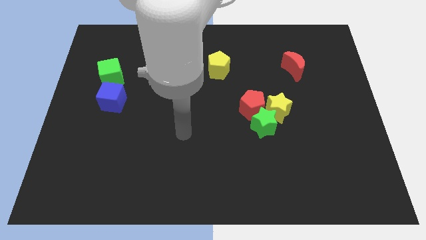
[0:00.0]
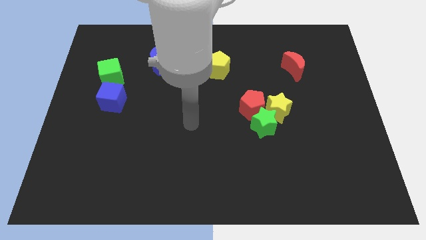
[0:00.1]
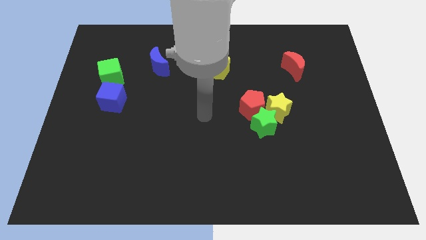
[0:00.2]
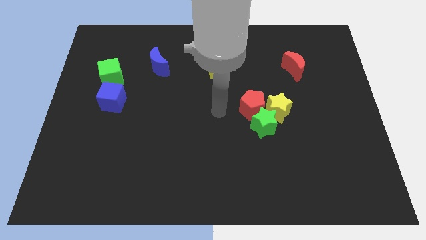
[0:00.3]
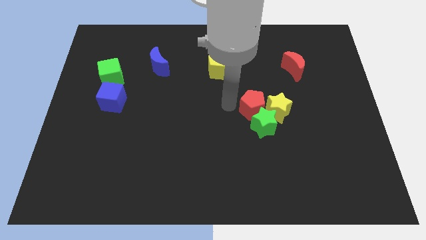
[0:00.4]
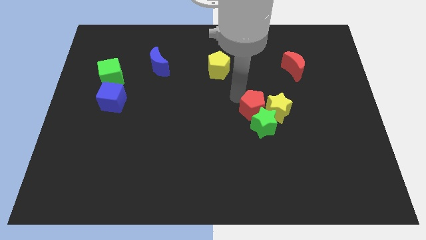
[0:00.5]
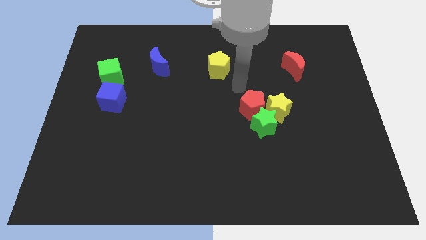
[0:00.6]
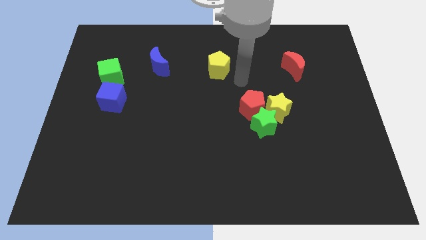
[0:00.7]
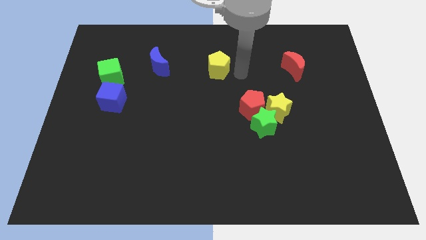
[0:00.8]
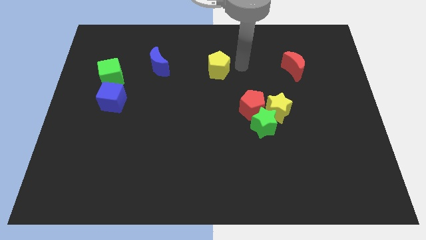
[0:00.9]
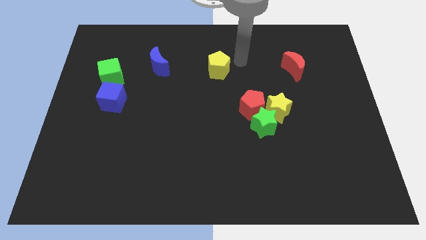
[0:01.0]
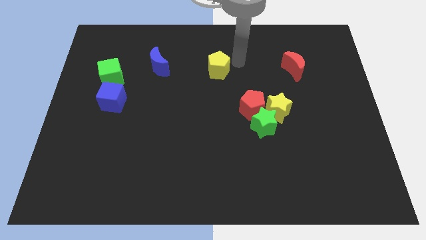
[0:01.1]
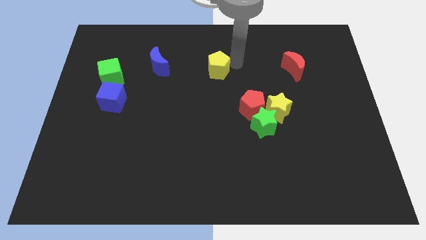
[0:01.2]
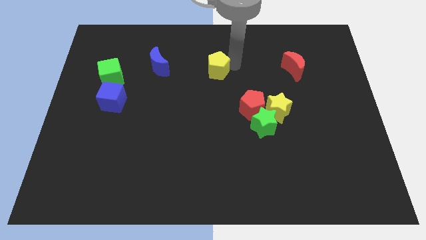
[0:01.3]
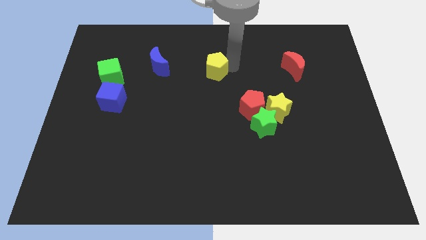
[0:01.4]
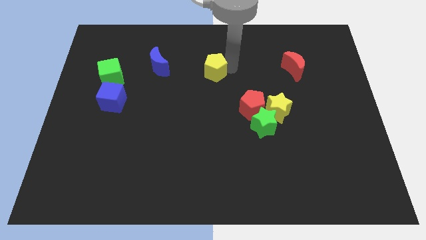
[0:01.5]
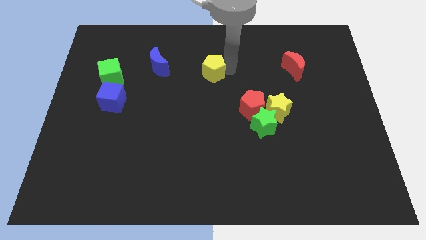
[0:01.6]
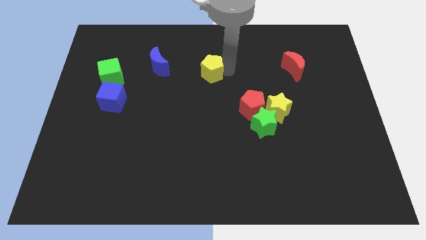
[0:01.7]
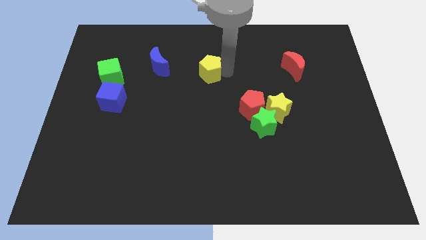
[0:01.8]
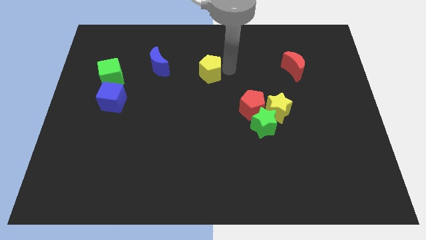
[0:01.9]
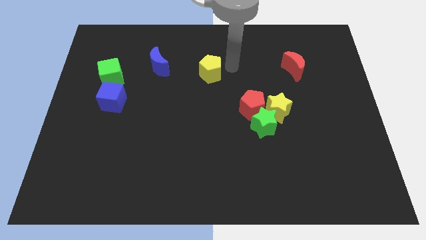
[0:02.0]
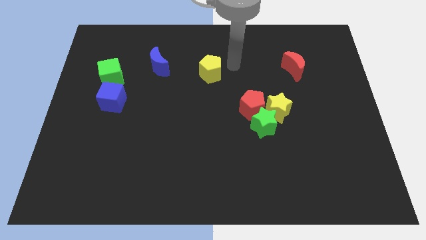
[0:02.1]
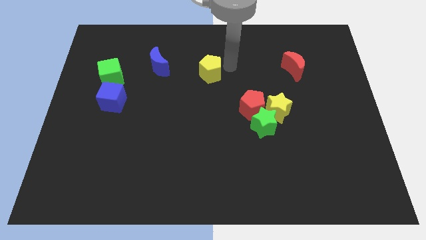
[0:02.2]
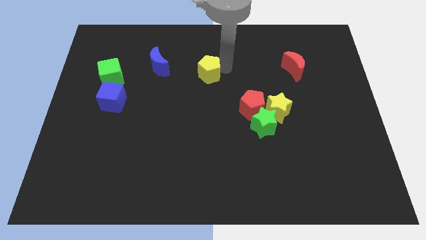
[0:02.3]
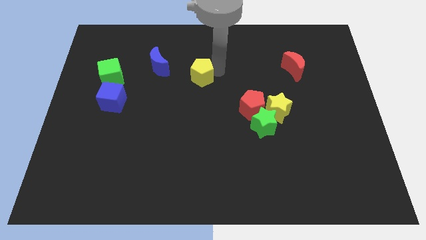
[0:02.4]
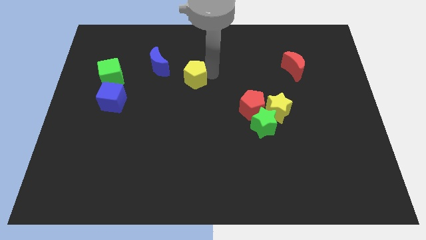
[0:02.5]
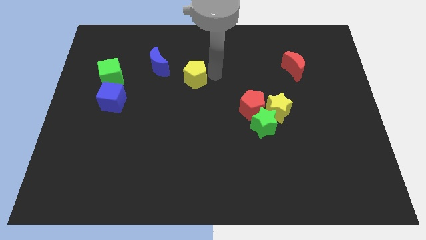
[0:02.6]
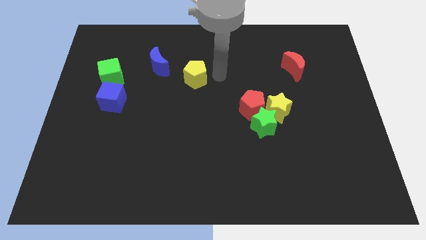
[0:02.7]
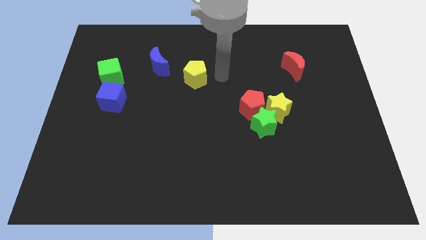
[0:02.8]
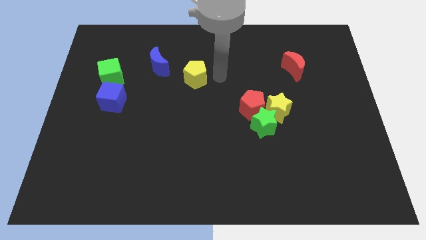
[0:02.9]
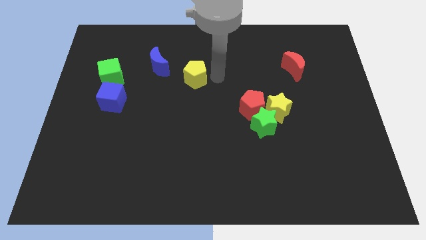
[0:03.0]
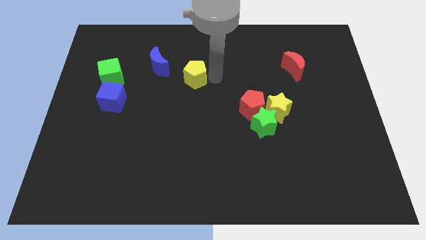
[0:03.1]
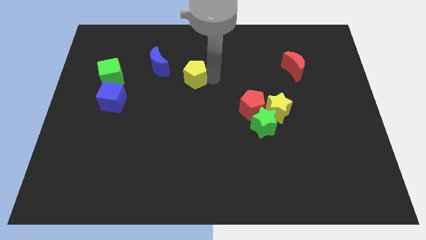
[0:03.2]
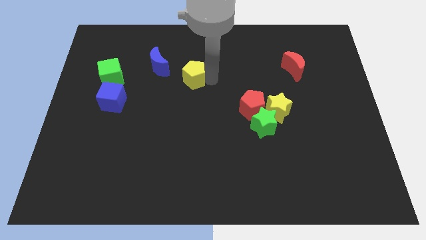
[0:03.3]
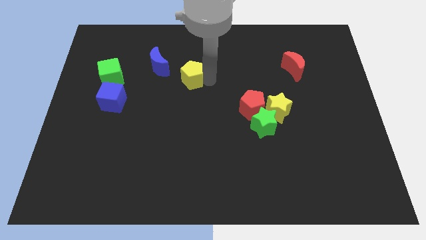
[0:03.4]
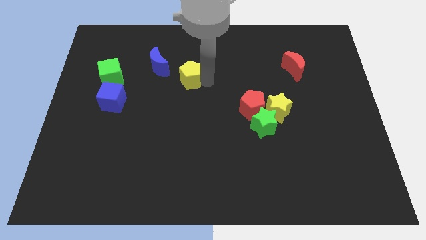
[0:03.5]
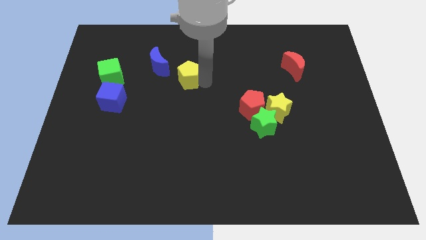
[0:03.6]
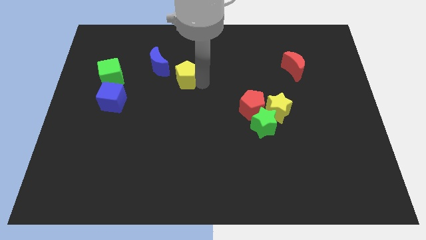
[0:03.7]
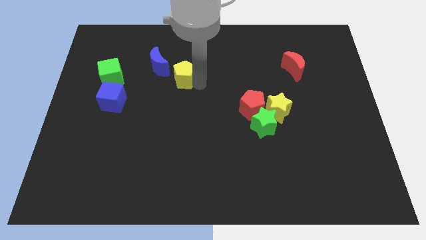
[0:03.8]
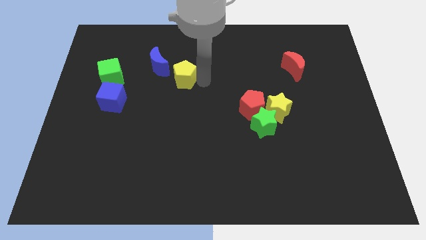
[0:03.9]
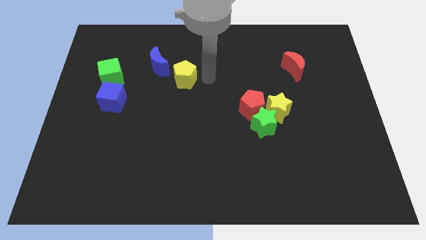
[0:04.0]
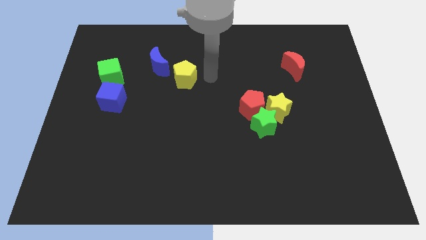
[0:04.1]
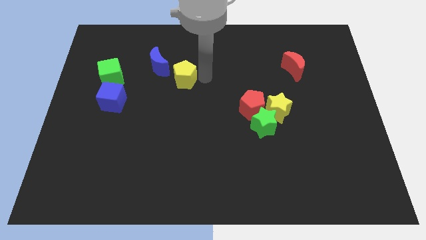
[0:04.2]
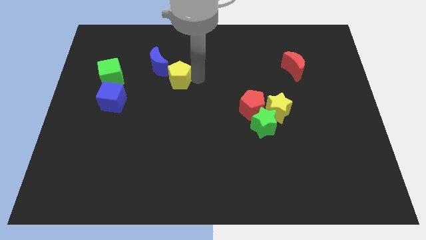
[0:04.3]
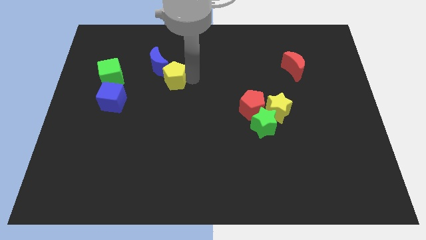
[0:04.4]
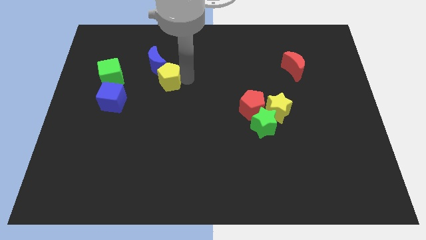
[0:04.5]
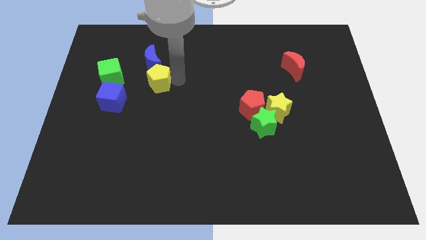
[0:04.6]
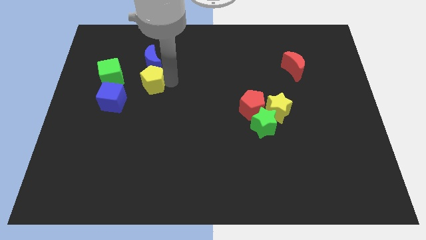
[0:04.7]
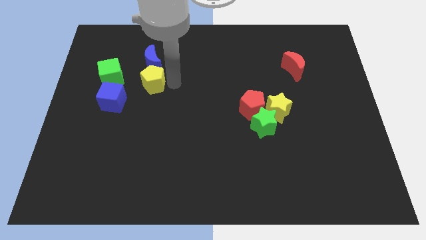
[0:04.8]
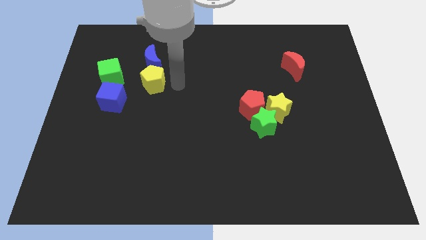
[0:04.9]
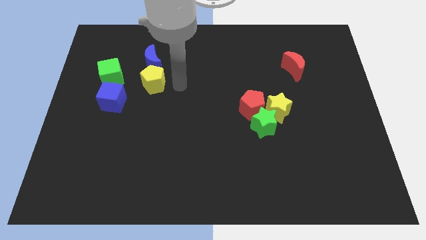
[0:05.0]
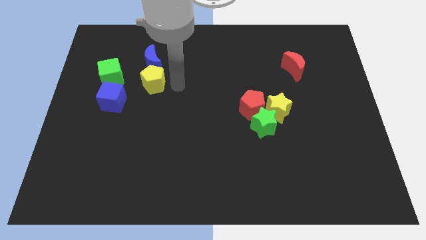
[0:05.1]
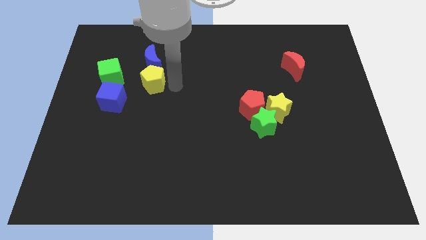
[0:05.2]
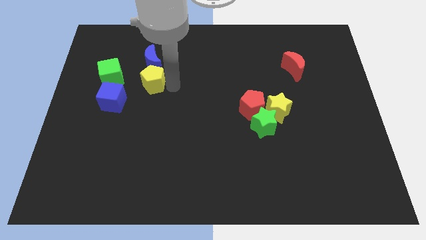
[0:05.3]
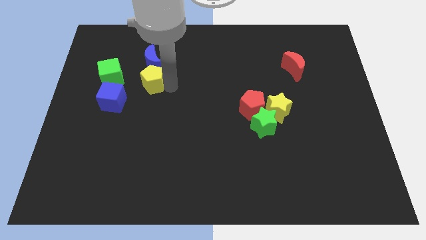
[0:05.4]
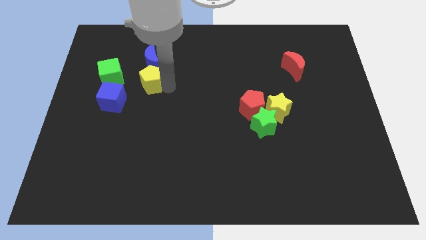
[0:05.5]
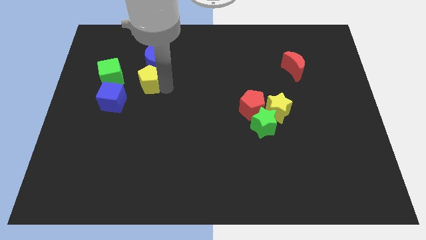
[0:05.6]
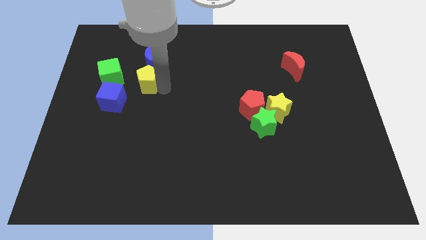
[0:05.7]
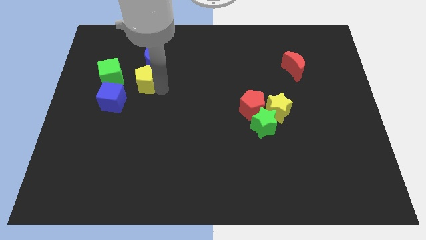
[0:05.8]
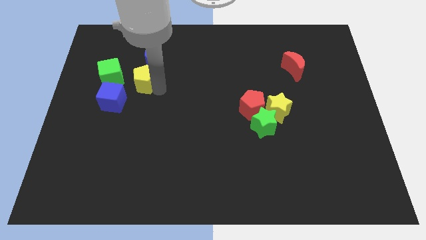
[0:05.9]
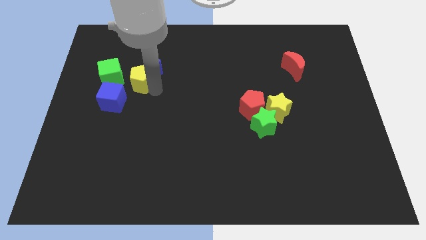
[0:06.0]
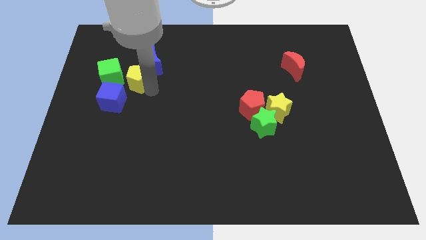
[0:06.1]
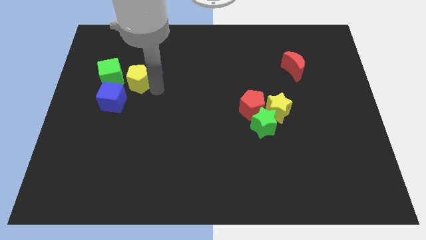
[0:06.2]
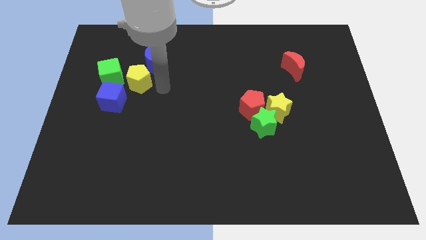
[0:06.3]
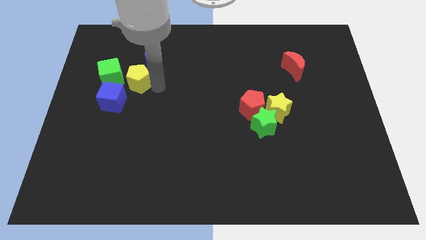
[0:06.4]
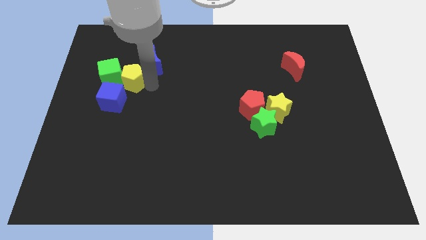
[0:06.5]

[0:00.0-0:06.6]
put the yellow pentagon close to the green cube

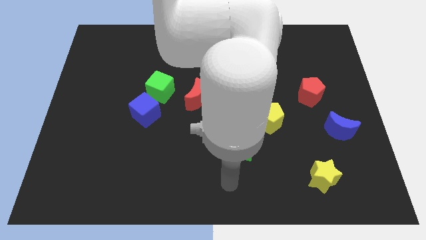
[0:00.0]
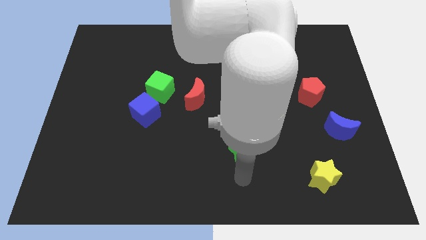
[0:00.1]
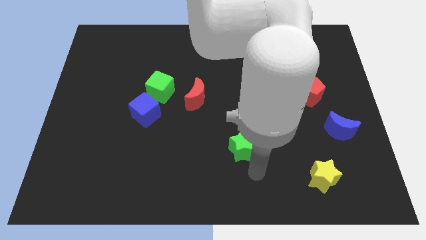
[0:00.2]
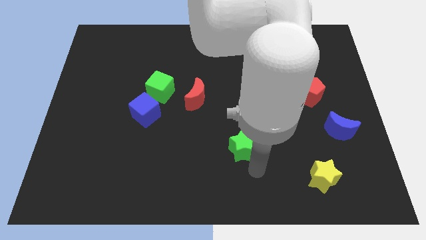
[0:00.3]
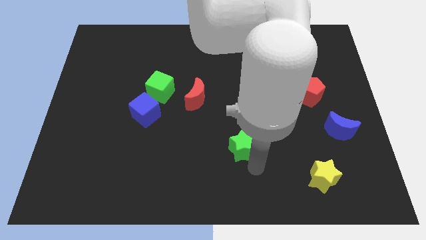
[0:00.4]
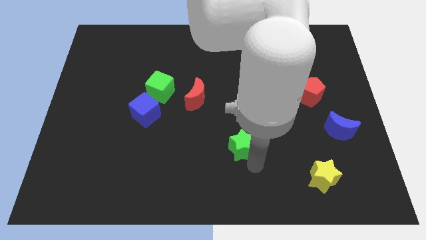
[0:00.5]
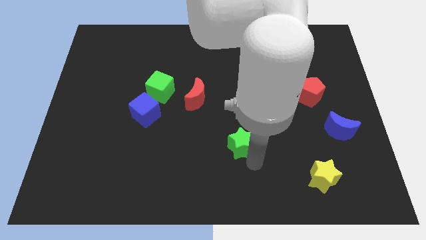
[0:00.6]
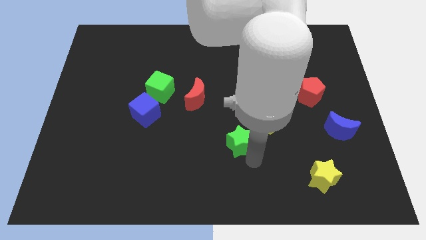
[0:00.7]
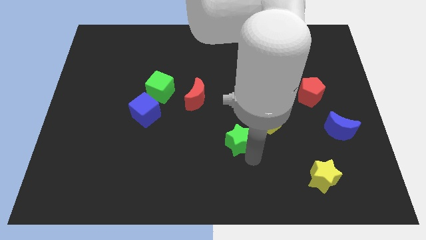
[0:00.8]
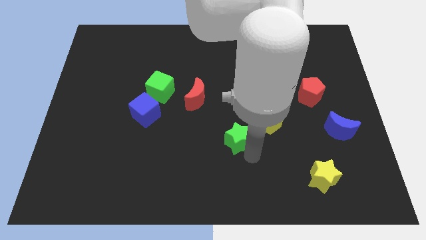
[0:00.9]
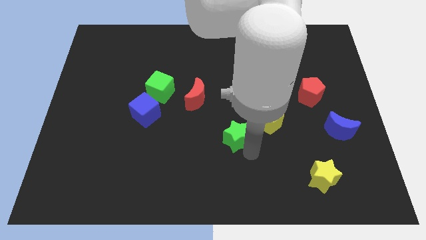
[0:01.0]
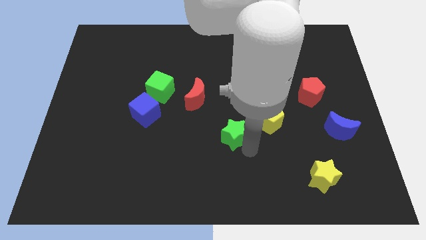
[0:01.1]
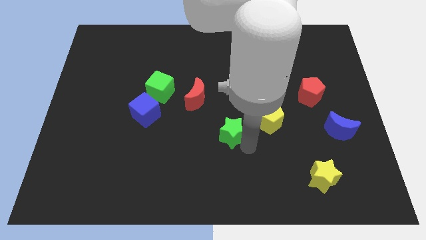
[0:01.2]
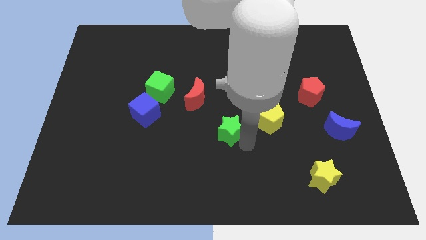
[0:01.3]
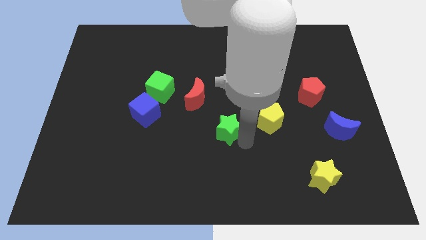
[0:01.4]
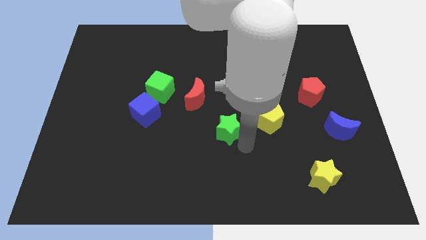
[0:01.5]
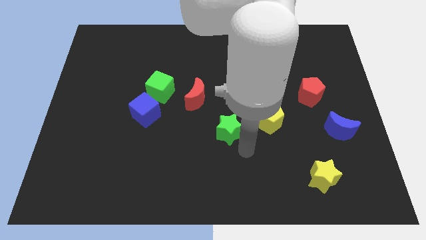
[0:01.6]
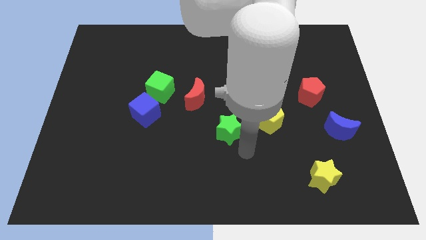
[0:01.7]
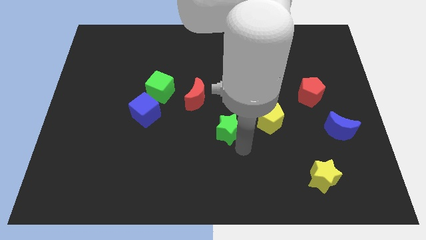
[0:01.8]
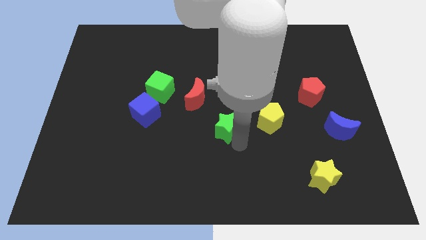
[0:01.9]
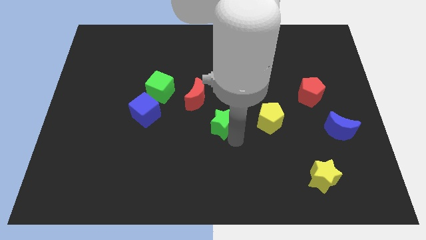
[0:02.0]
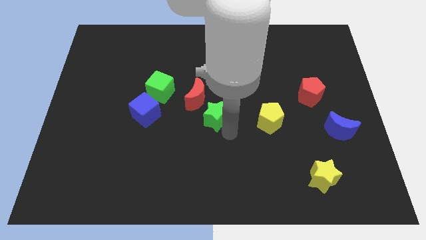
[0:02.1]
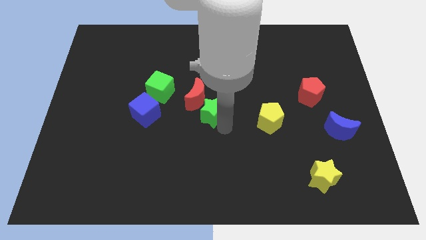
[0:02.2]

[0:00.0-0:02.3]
move the green star close to the red moon
